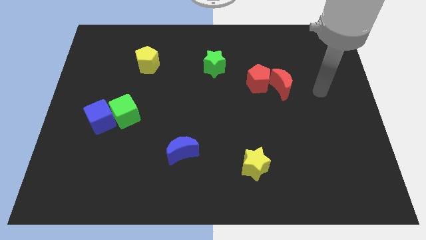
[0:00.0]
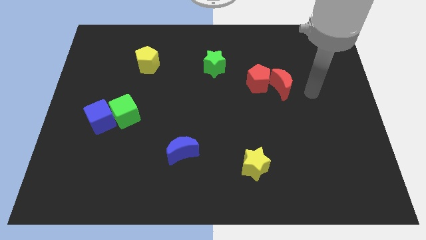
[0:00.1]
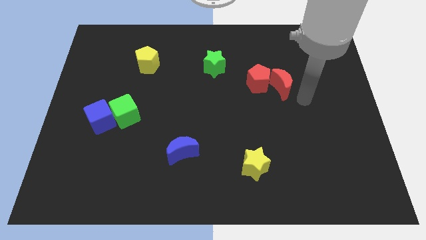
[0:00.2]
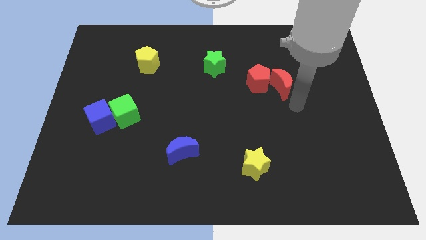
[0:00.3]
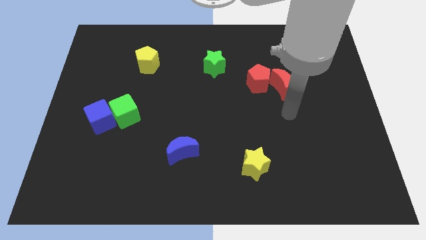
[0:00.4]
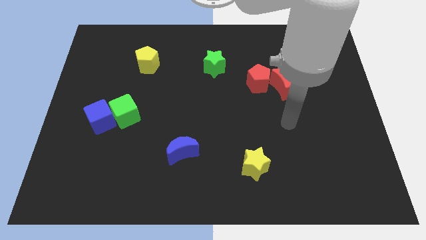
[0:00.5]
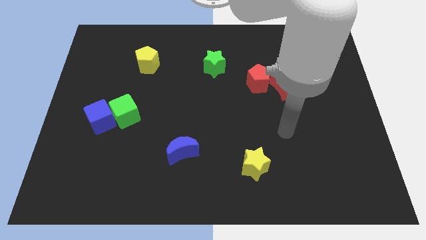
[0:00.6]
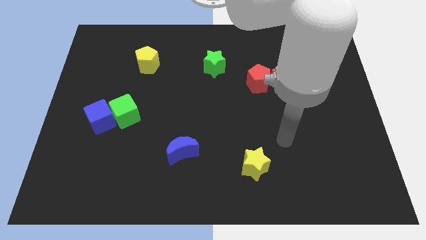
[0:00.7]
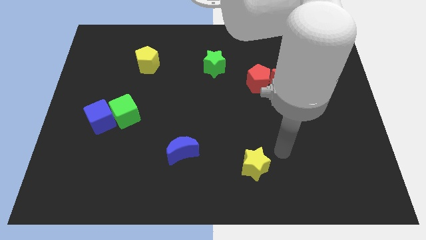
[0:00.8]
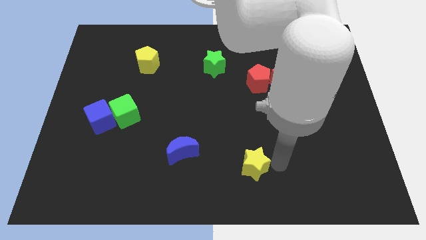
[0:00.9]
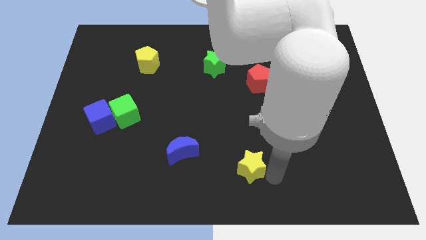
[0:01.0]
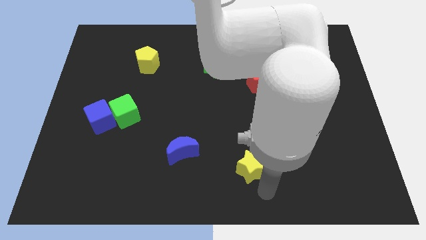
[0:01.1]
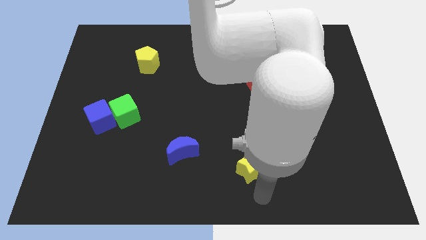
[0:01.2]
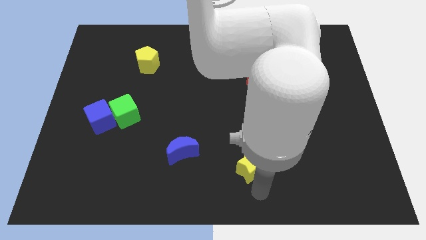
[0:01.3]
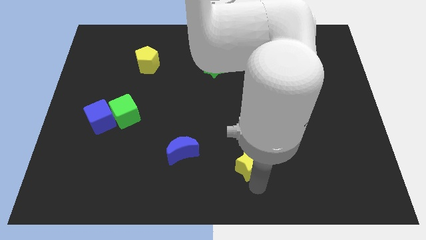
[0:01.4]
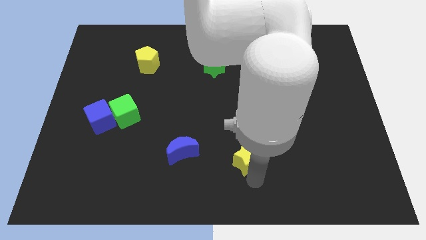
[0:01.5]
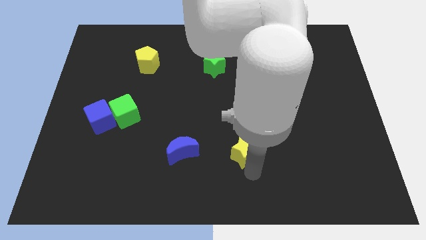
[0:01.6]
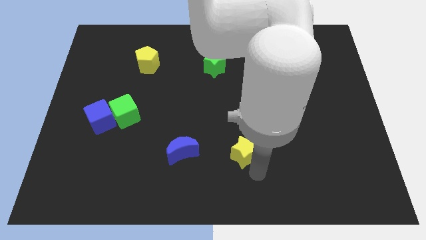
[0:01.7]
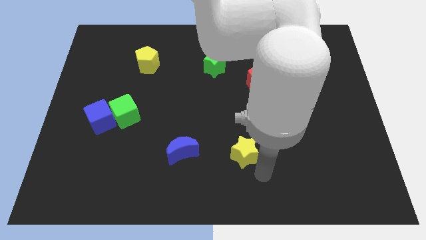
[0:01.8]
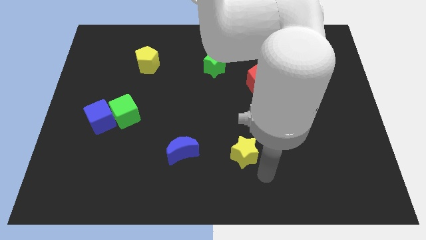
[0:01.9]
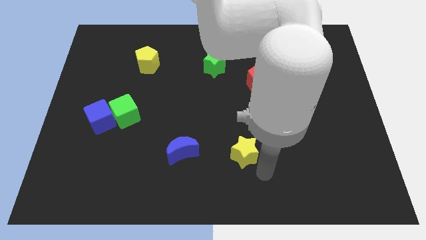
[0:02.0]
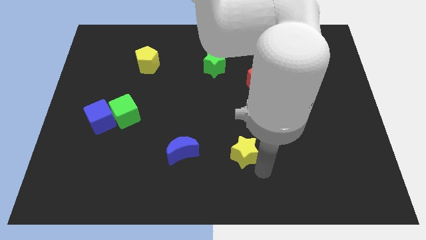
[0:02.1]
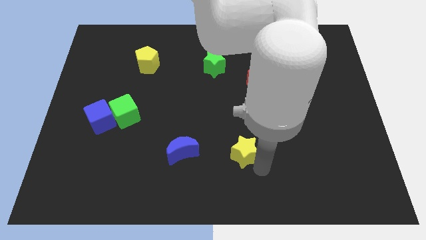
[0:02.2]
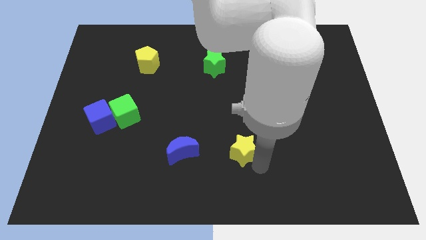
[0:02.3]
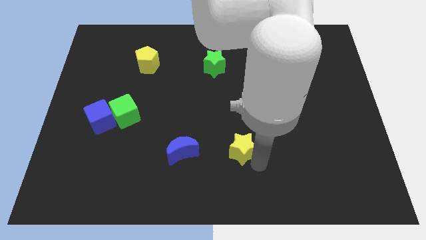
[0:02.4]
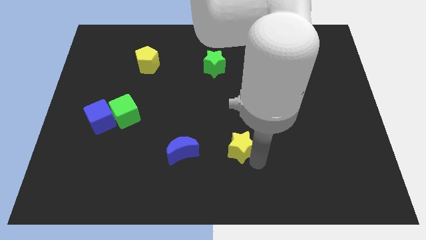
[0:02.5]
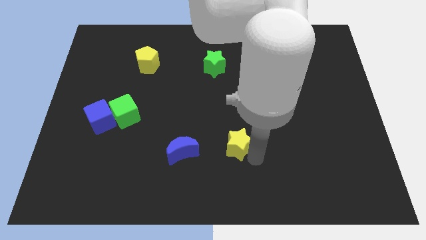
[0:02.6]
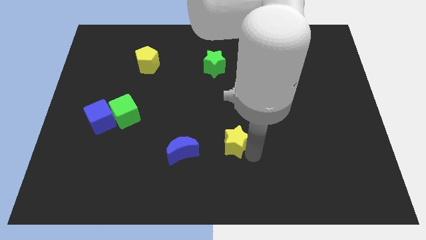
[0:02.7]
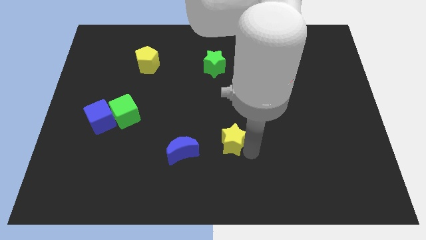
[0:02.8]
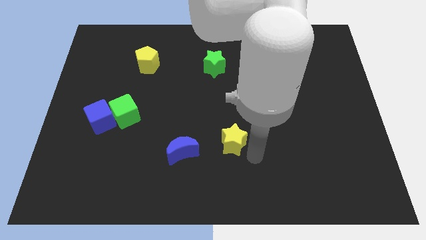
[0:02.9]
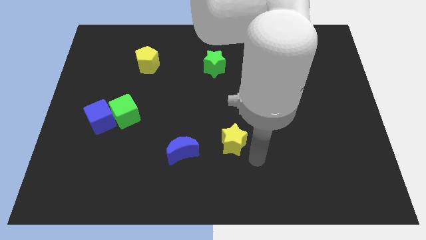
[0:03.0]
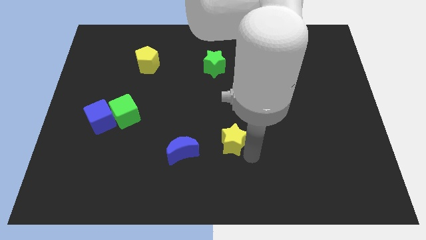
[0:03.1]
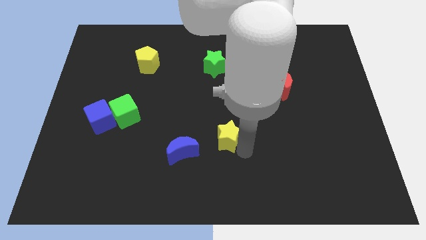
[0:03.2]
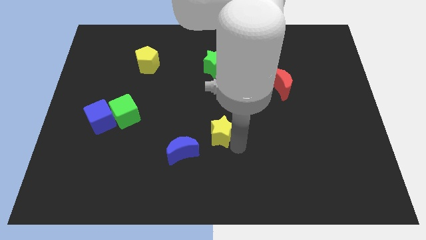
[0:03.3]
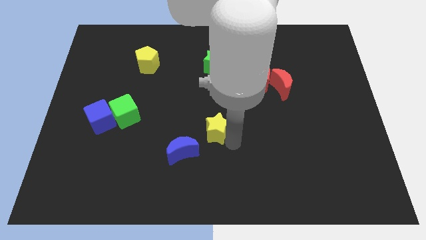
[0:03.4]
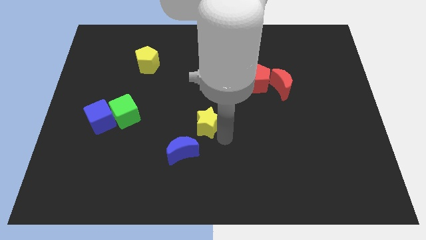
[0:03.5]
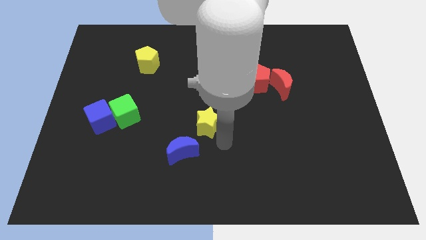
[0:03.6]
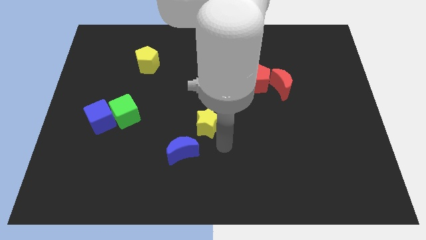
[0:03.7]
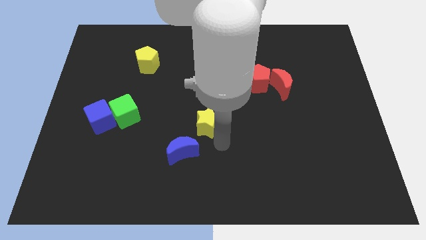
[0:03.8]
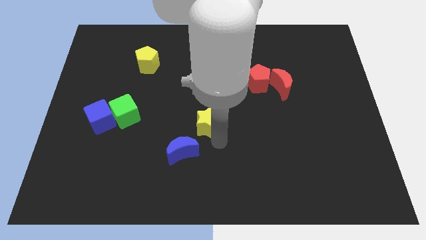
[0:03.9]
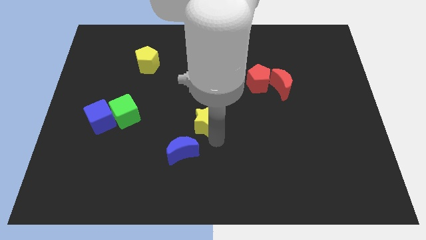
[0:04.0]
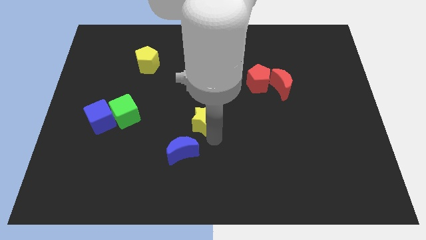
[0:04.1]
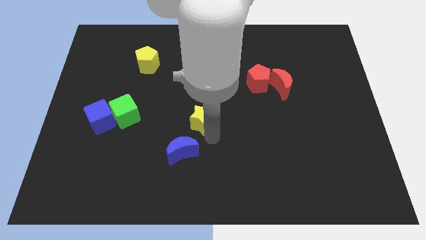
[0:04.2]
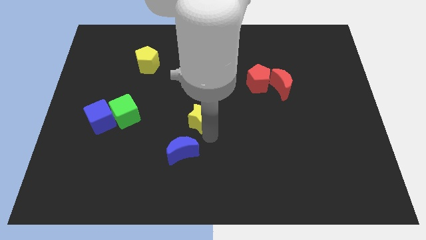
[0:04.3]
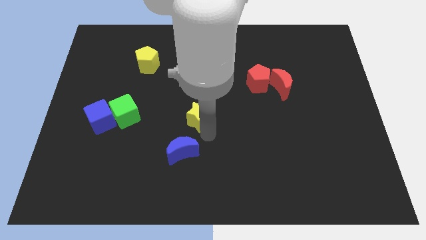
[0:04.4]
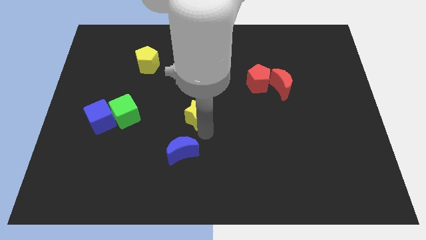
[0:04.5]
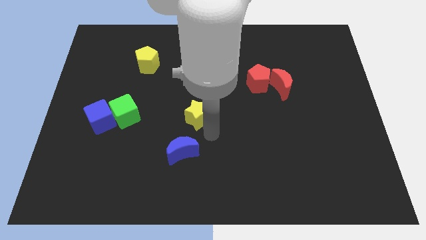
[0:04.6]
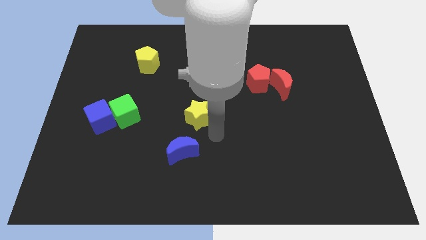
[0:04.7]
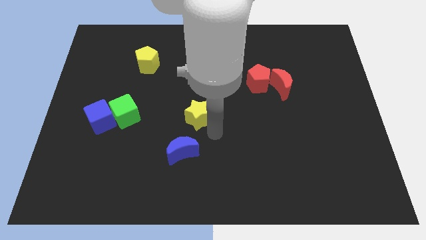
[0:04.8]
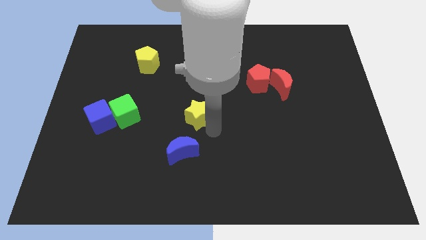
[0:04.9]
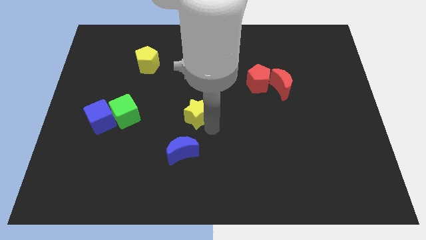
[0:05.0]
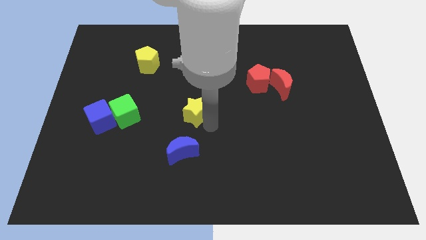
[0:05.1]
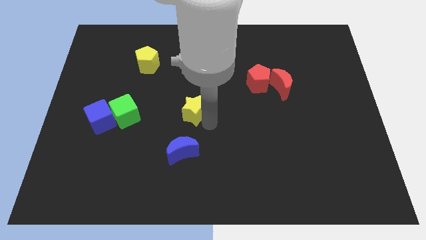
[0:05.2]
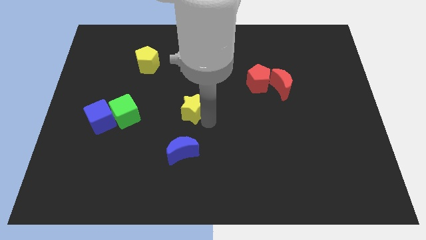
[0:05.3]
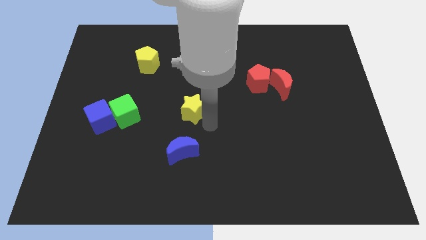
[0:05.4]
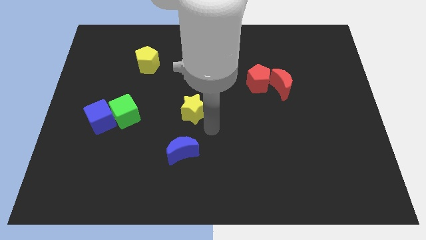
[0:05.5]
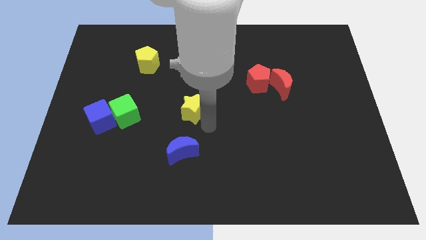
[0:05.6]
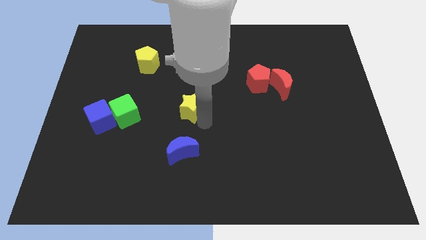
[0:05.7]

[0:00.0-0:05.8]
push the yellow star diagonally upwards and to the left

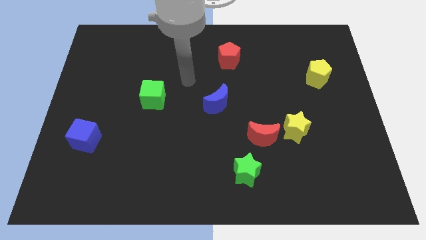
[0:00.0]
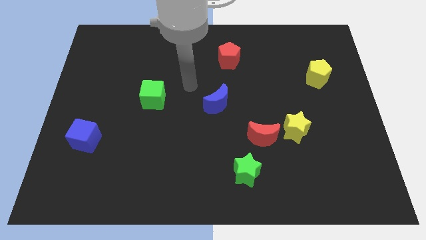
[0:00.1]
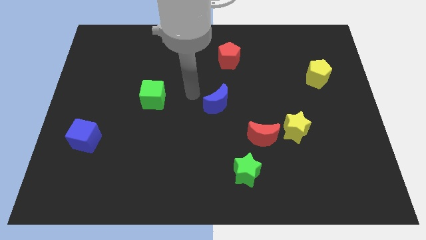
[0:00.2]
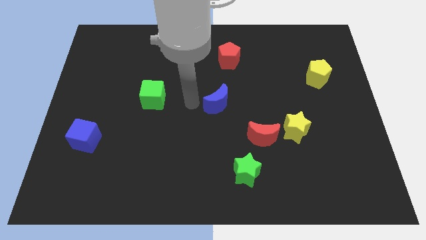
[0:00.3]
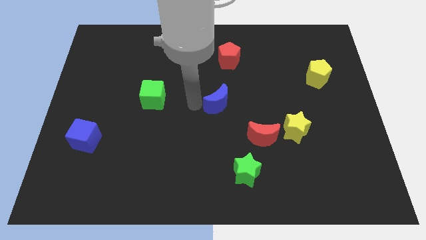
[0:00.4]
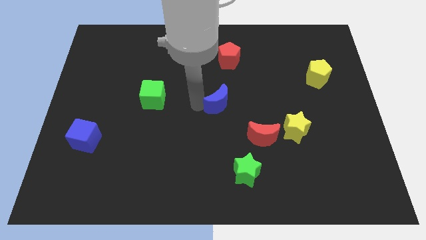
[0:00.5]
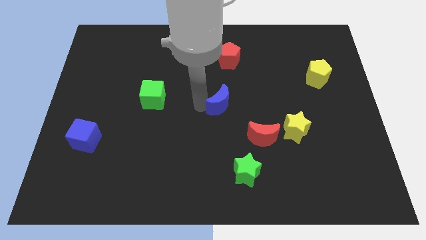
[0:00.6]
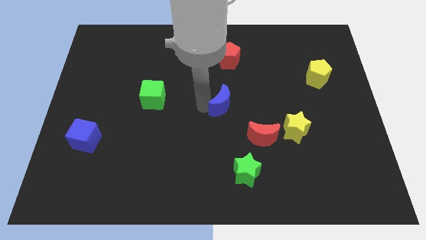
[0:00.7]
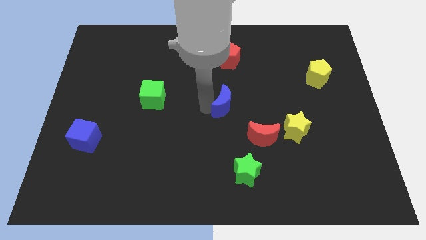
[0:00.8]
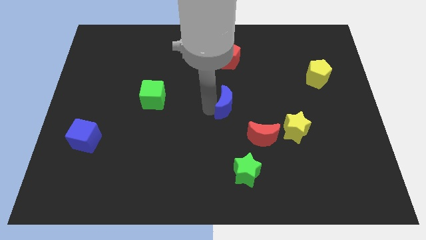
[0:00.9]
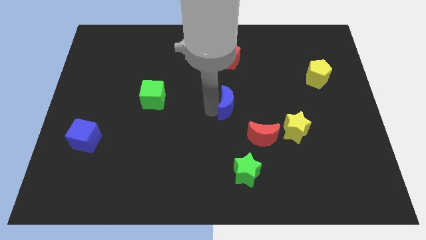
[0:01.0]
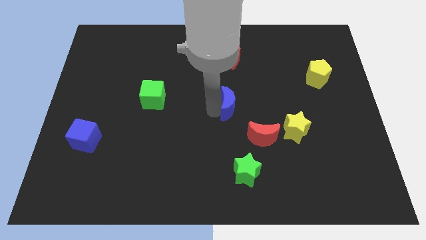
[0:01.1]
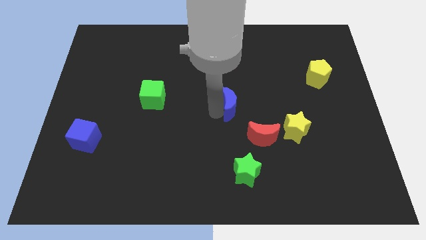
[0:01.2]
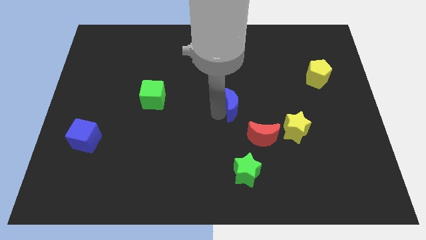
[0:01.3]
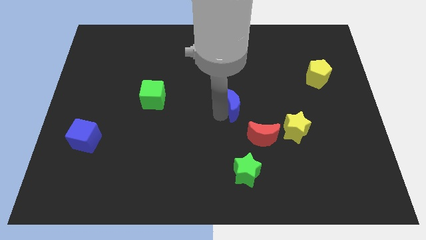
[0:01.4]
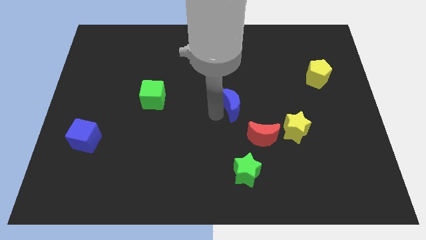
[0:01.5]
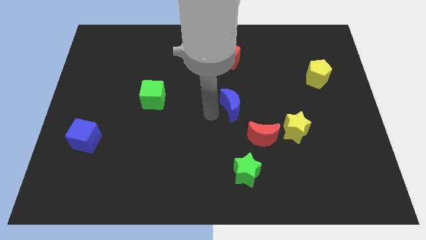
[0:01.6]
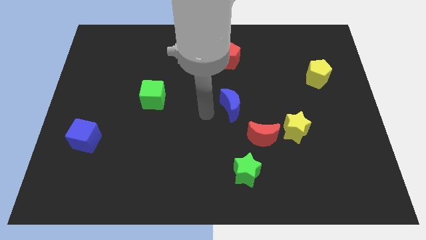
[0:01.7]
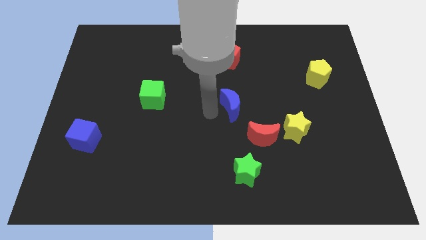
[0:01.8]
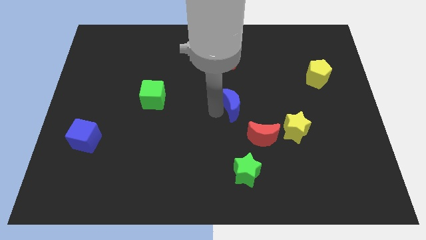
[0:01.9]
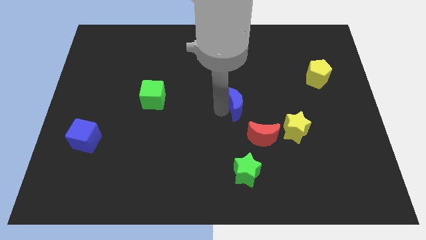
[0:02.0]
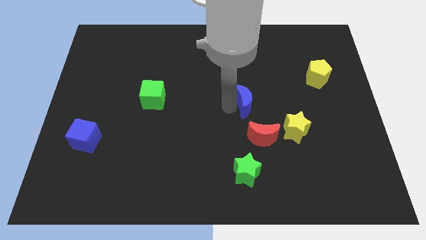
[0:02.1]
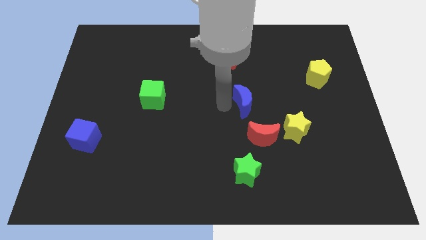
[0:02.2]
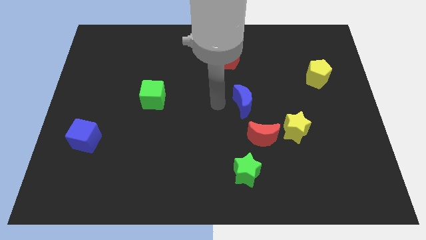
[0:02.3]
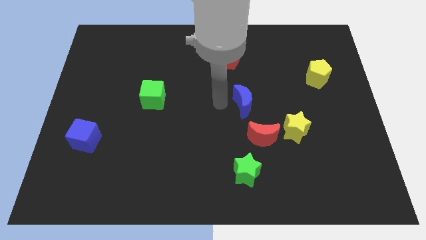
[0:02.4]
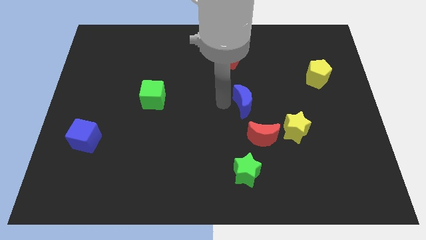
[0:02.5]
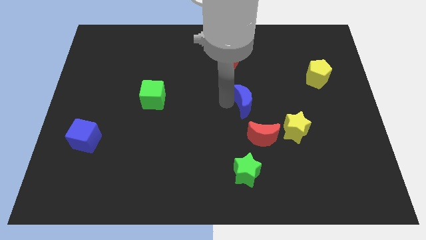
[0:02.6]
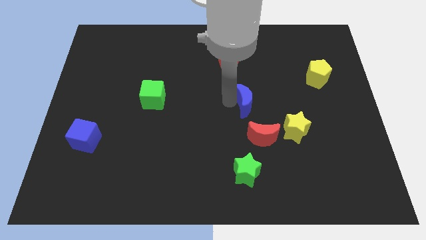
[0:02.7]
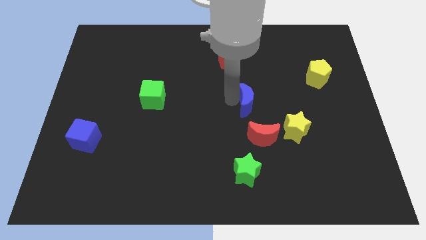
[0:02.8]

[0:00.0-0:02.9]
slightly push the blue moon to the right
